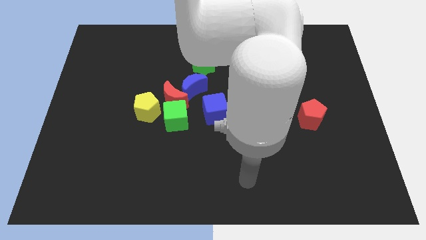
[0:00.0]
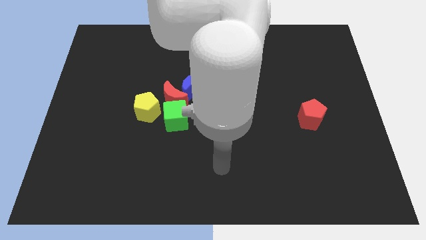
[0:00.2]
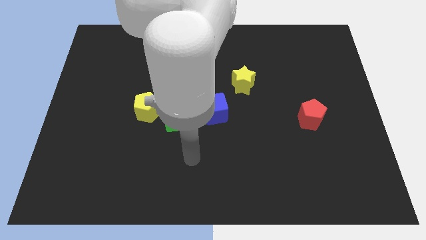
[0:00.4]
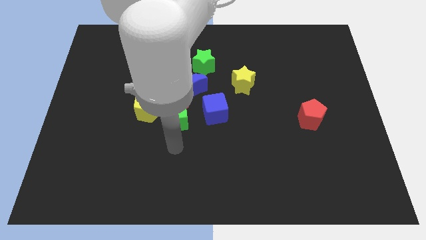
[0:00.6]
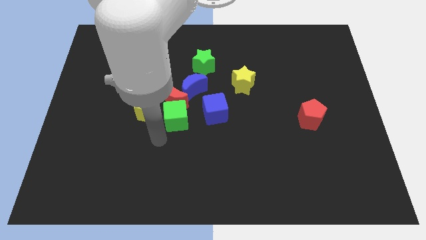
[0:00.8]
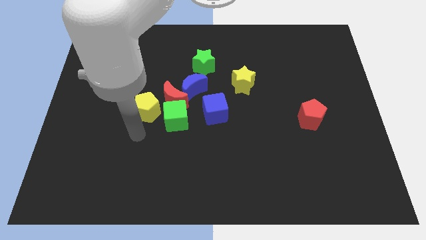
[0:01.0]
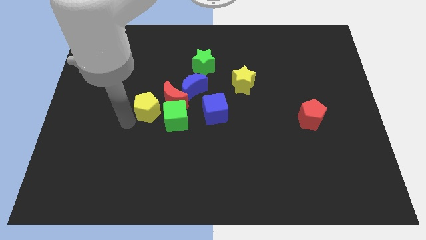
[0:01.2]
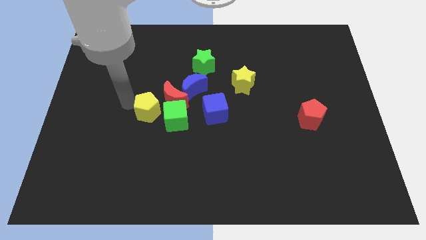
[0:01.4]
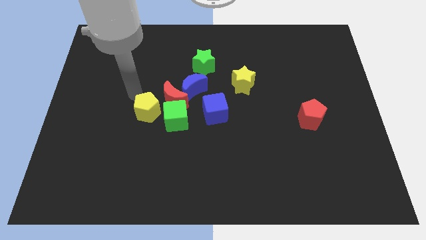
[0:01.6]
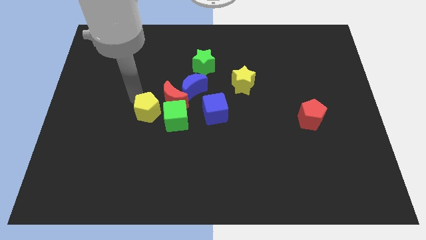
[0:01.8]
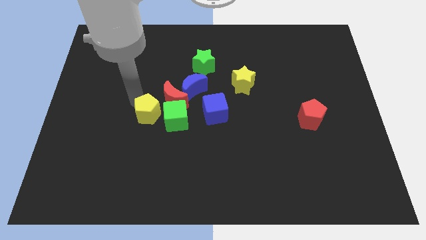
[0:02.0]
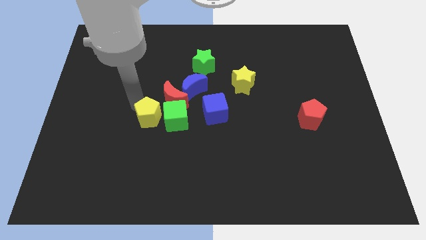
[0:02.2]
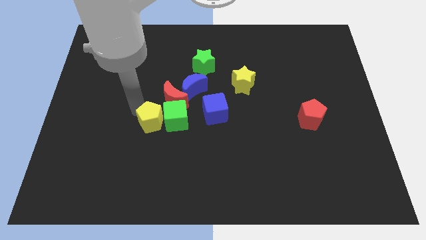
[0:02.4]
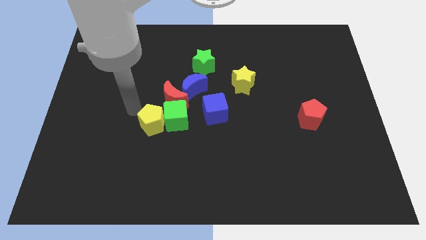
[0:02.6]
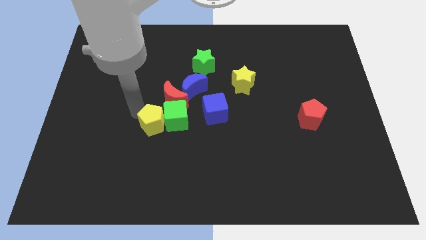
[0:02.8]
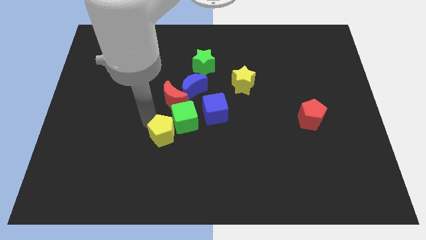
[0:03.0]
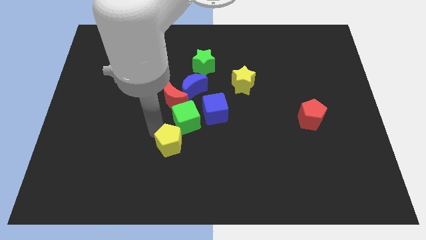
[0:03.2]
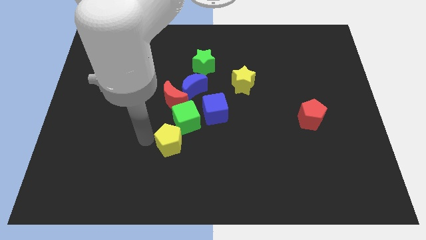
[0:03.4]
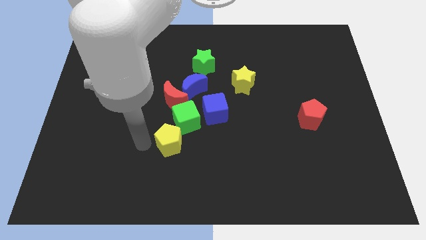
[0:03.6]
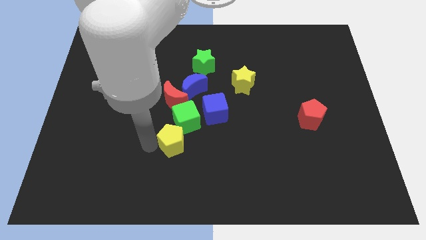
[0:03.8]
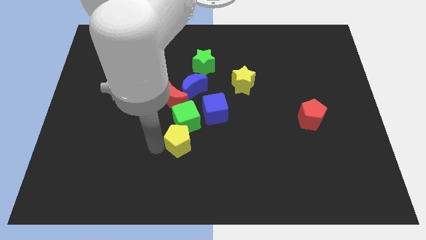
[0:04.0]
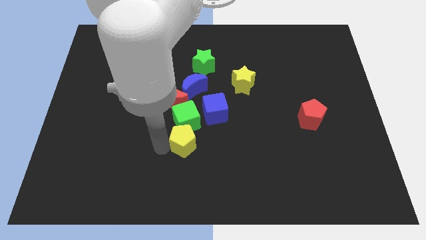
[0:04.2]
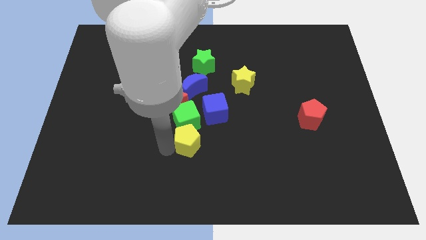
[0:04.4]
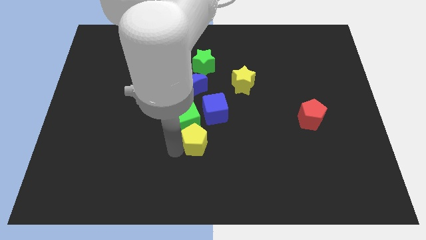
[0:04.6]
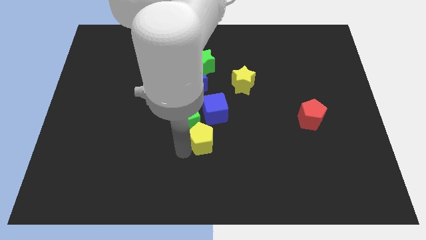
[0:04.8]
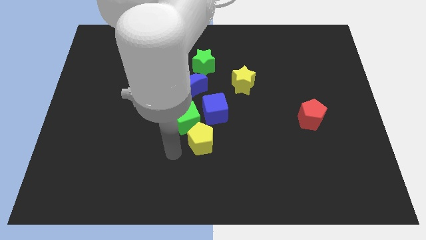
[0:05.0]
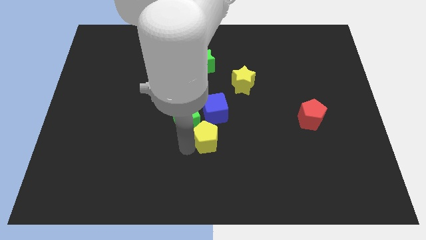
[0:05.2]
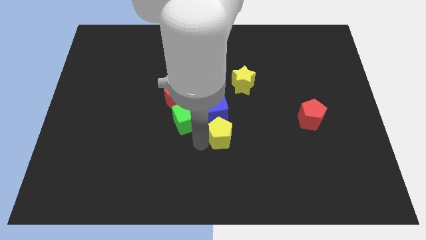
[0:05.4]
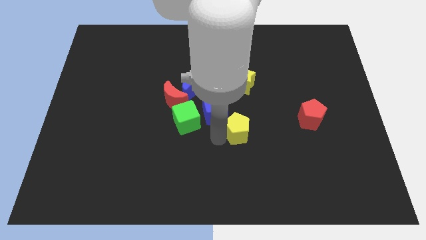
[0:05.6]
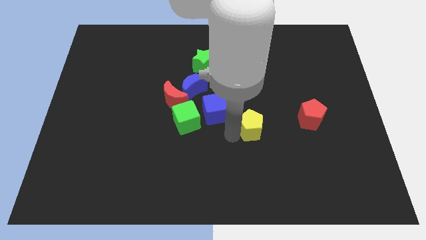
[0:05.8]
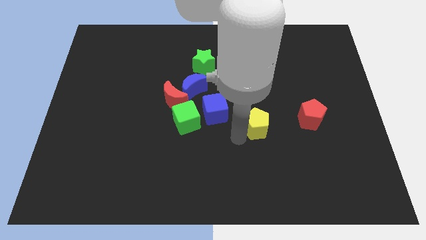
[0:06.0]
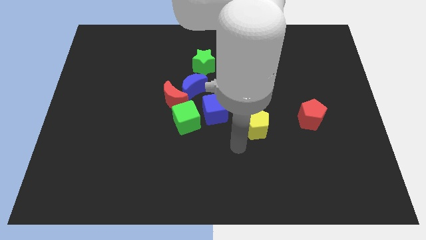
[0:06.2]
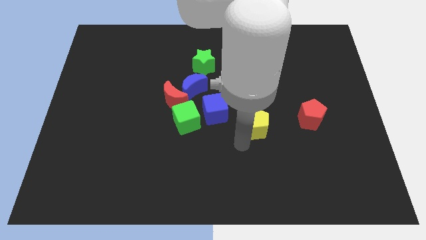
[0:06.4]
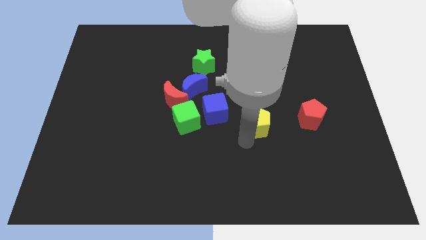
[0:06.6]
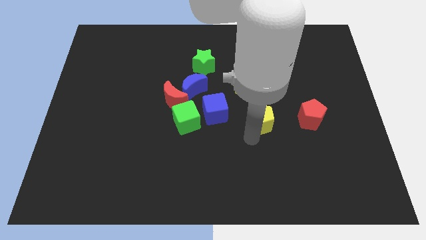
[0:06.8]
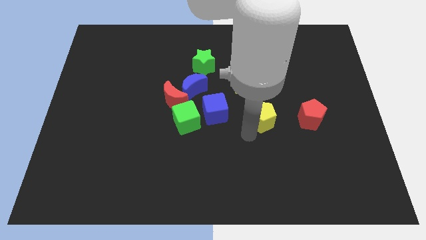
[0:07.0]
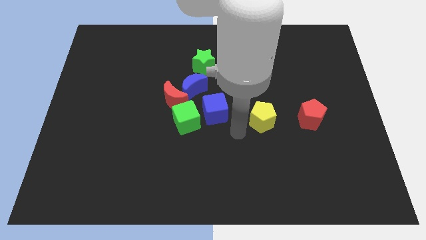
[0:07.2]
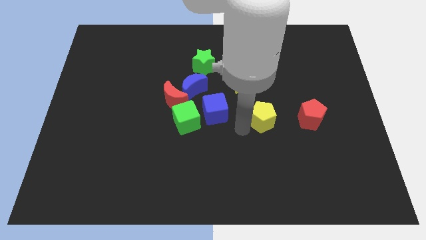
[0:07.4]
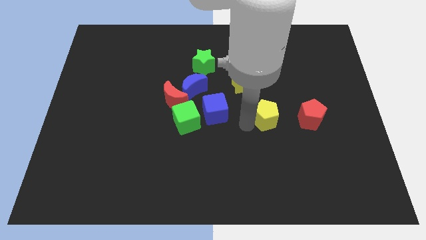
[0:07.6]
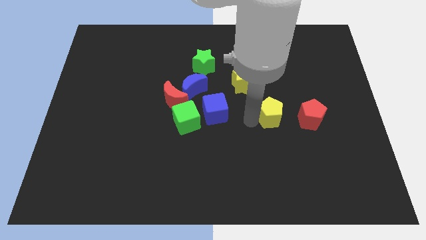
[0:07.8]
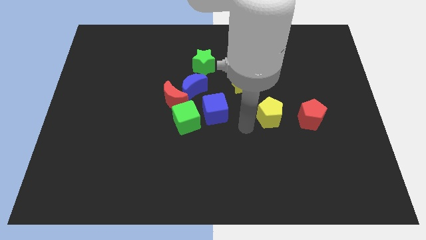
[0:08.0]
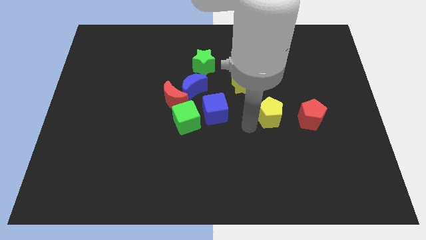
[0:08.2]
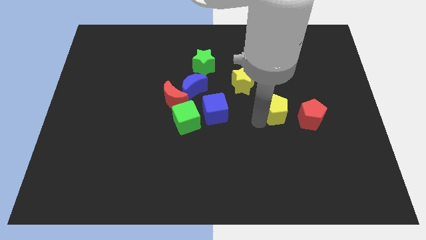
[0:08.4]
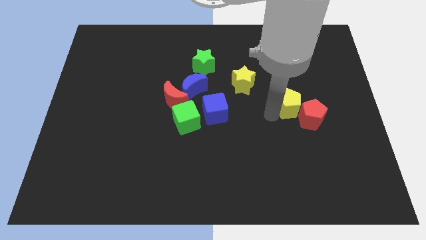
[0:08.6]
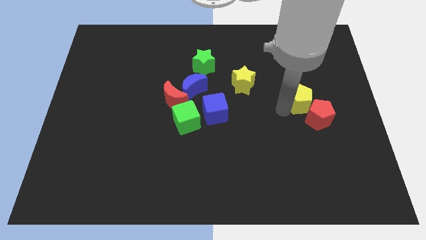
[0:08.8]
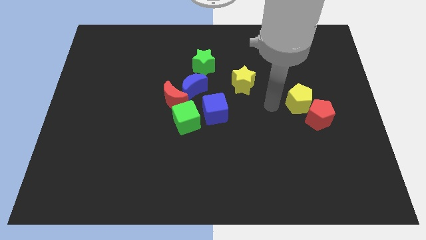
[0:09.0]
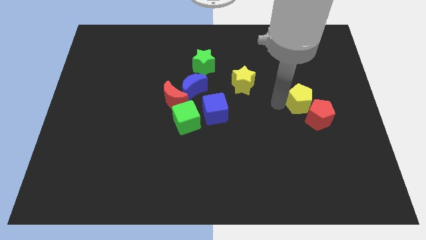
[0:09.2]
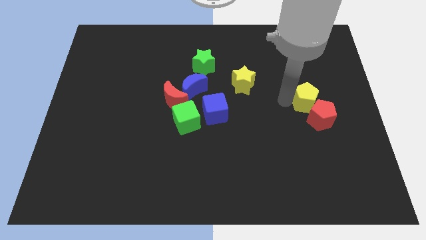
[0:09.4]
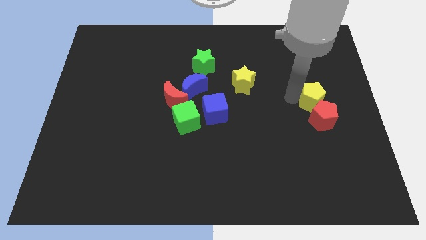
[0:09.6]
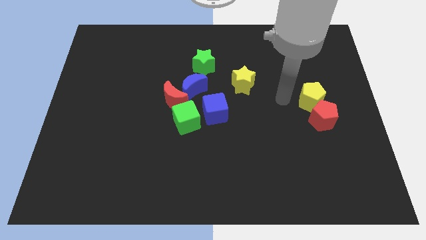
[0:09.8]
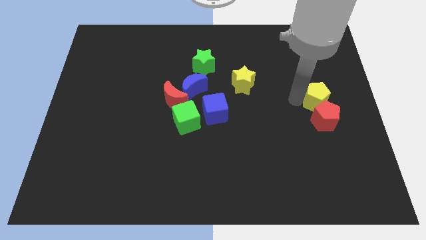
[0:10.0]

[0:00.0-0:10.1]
put the yellow pentagon to the top right side of the red pentagon

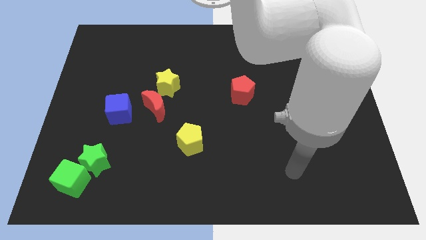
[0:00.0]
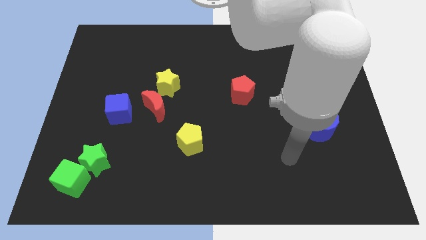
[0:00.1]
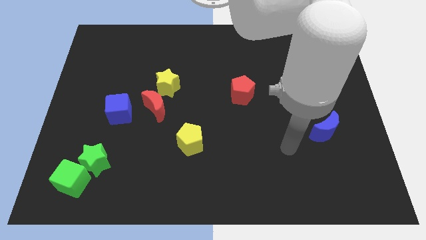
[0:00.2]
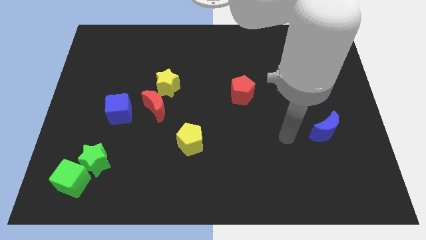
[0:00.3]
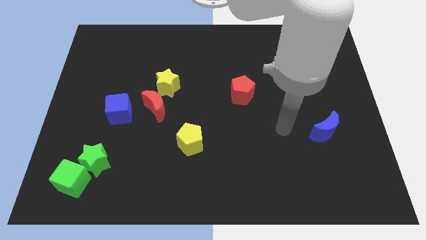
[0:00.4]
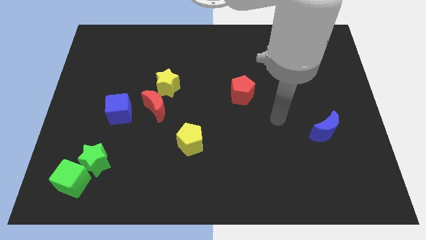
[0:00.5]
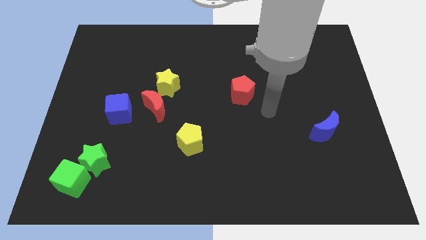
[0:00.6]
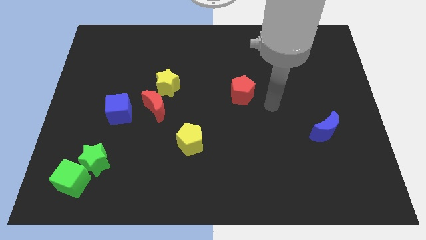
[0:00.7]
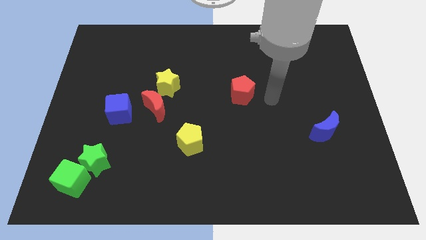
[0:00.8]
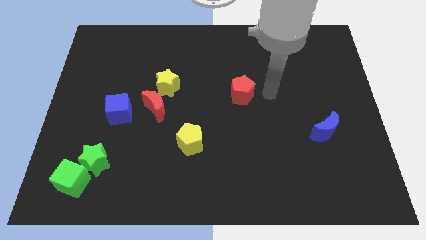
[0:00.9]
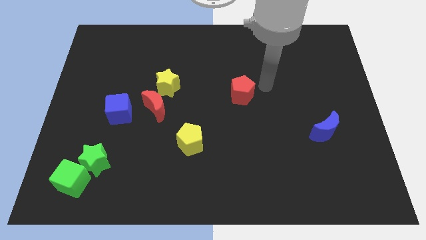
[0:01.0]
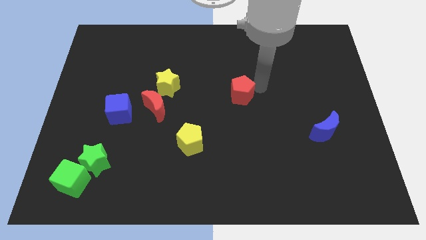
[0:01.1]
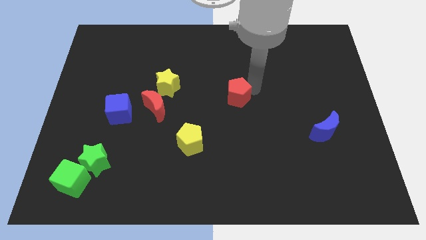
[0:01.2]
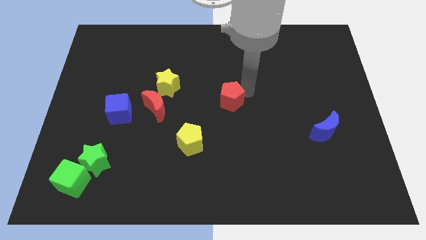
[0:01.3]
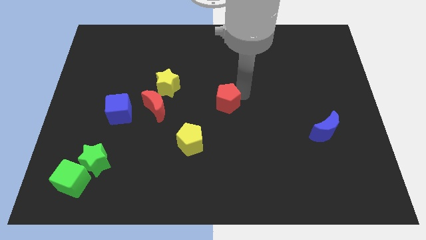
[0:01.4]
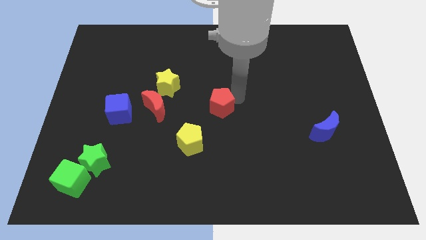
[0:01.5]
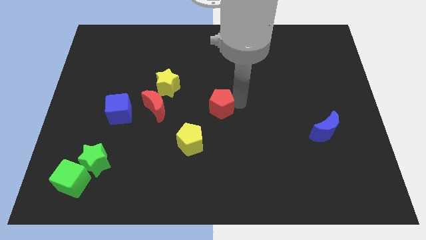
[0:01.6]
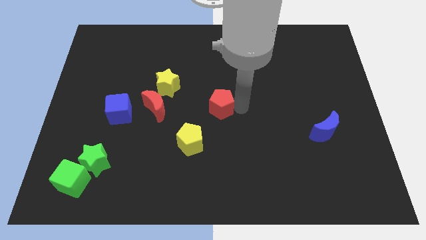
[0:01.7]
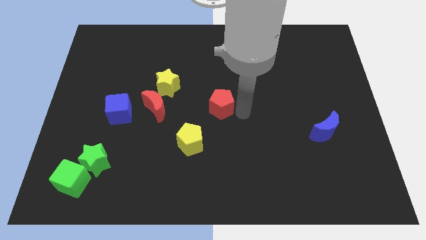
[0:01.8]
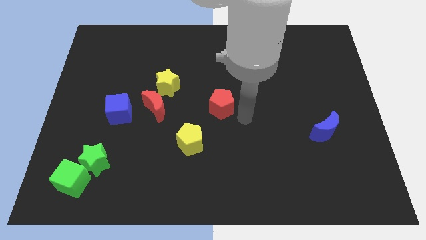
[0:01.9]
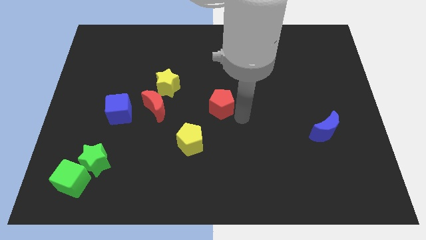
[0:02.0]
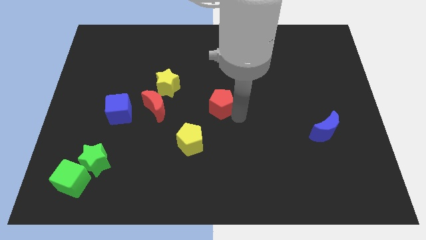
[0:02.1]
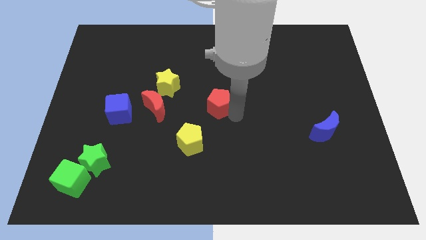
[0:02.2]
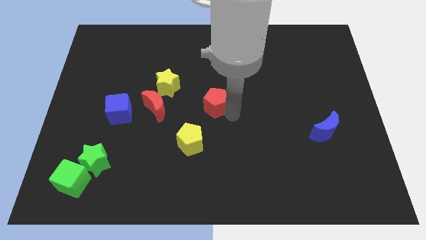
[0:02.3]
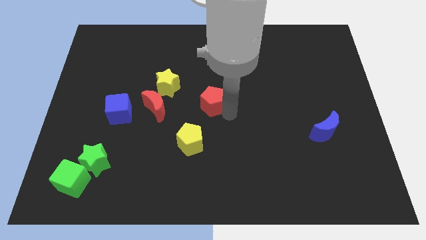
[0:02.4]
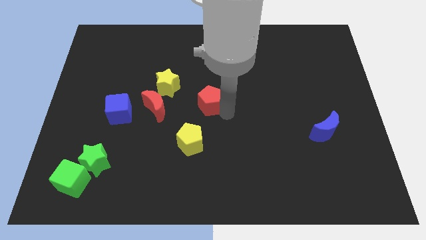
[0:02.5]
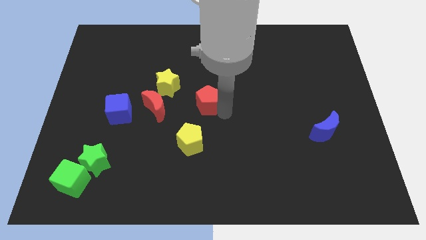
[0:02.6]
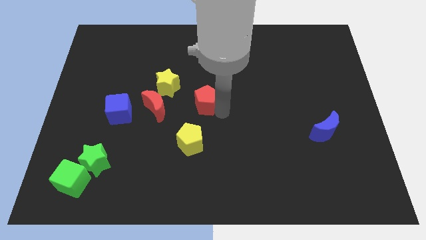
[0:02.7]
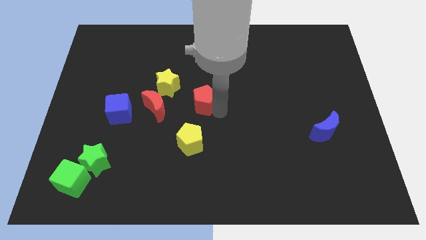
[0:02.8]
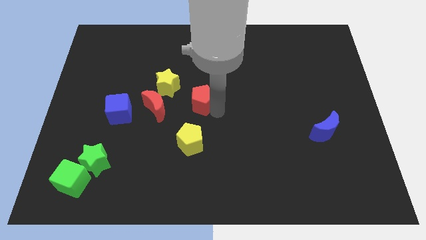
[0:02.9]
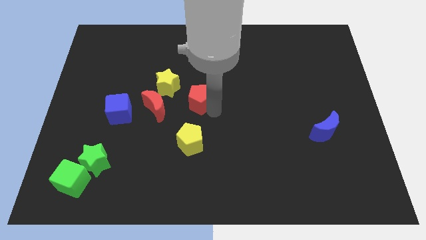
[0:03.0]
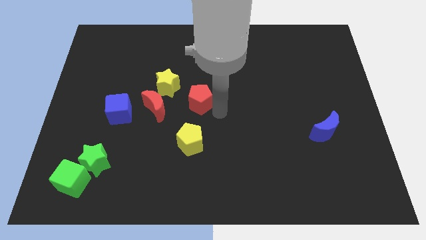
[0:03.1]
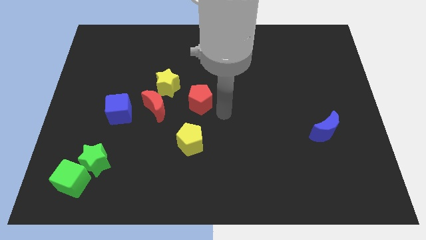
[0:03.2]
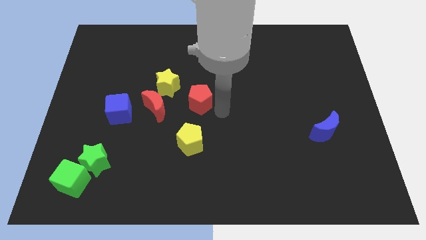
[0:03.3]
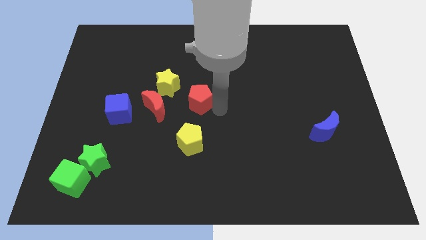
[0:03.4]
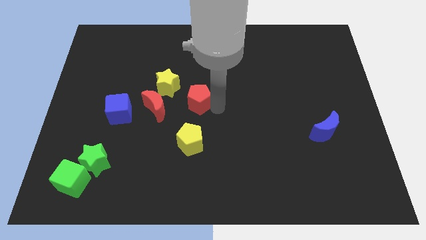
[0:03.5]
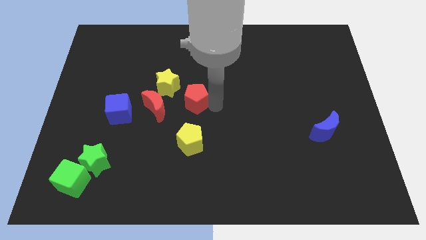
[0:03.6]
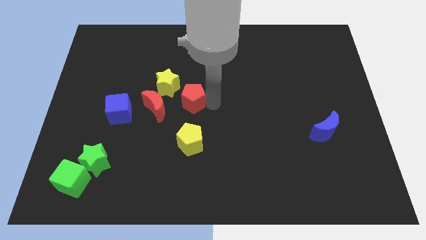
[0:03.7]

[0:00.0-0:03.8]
move the red pentagon diagonally up and to the right of the red moon
